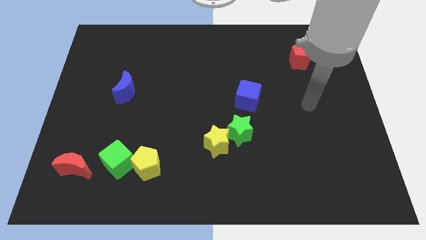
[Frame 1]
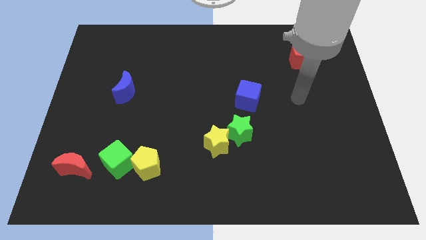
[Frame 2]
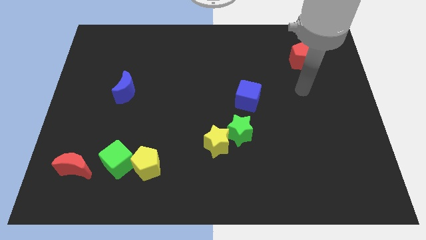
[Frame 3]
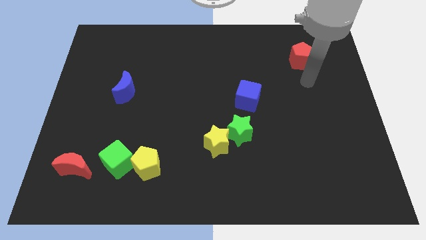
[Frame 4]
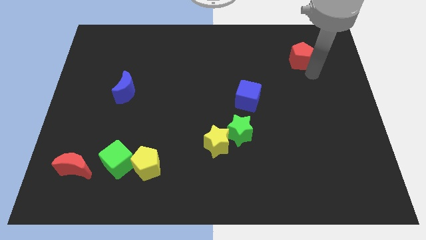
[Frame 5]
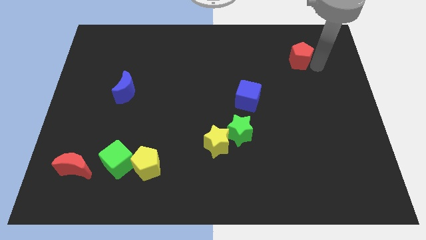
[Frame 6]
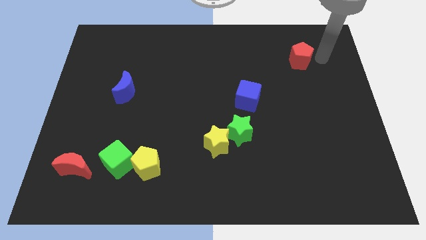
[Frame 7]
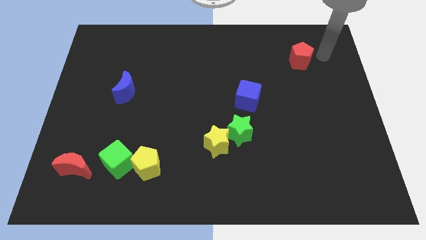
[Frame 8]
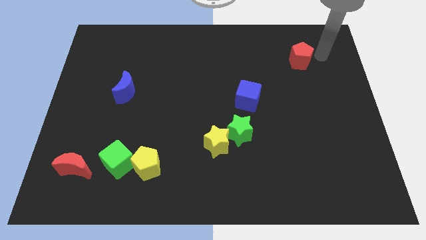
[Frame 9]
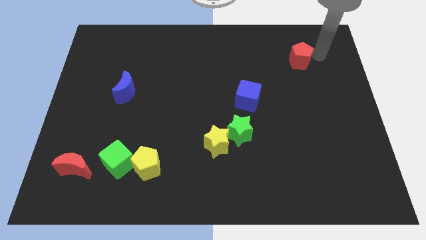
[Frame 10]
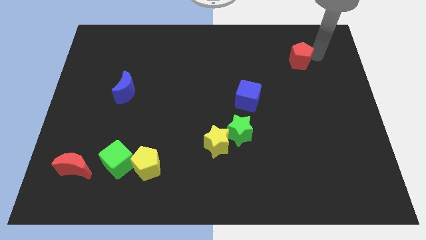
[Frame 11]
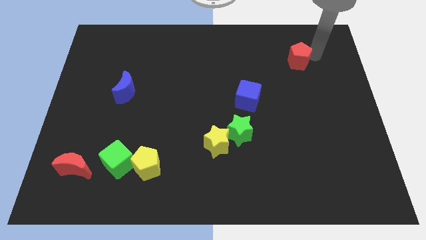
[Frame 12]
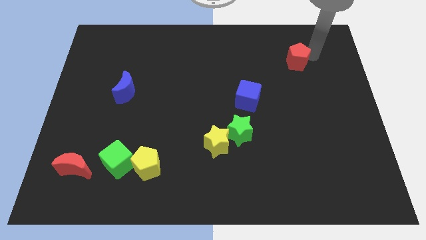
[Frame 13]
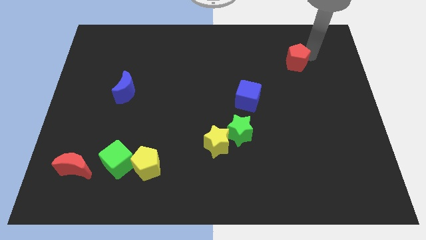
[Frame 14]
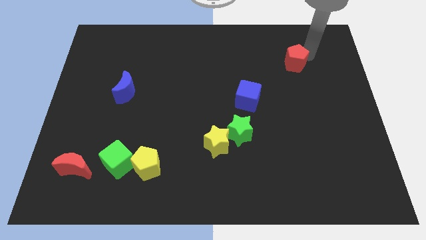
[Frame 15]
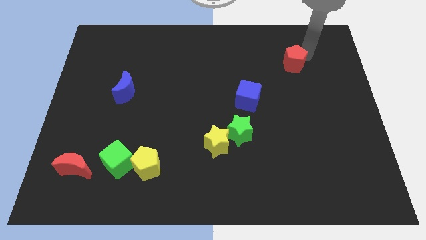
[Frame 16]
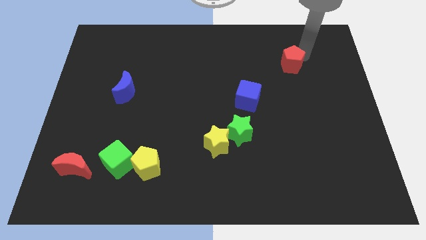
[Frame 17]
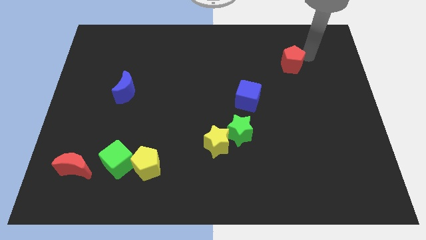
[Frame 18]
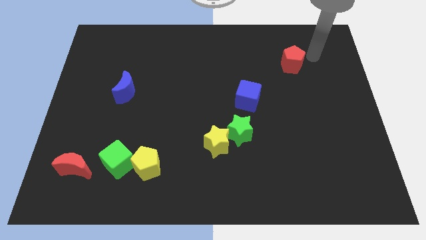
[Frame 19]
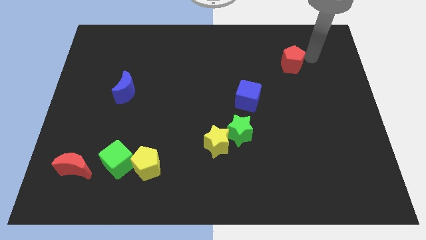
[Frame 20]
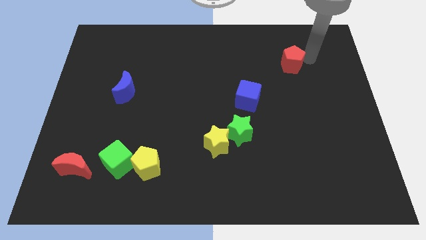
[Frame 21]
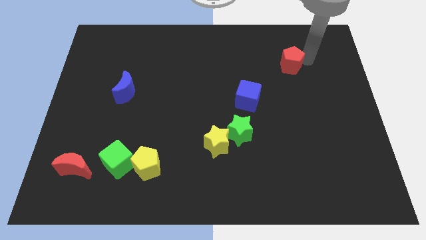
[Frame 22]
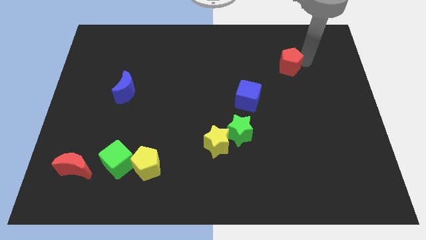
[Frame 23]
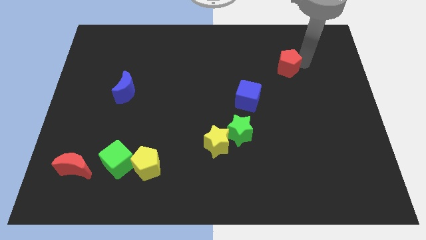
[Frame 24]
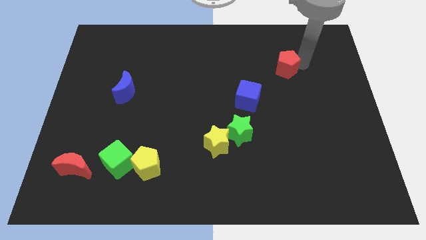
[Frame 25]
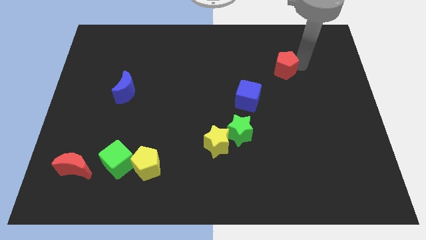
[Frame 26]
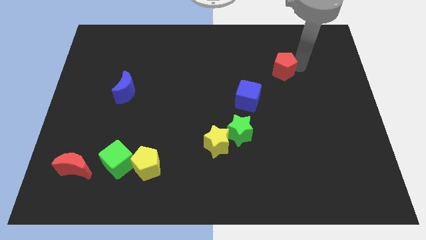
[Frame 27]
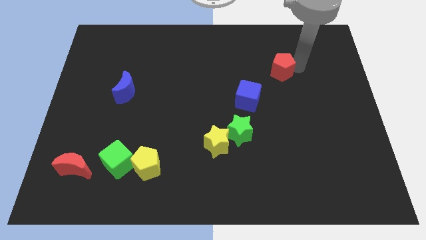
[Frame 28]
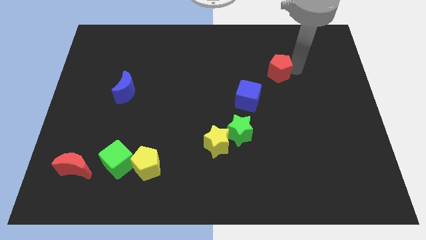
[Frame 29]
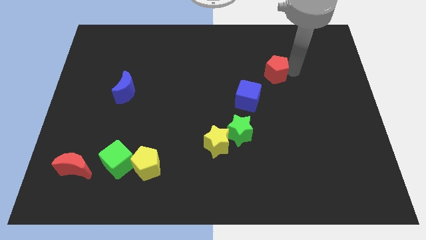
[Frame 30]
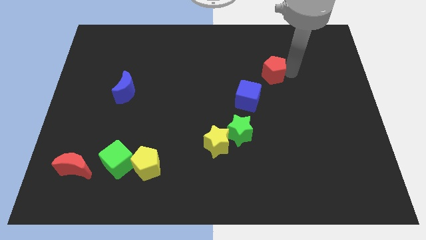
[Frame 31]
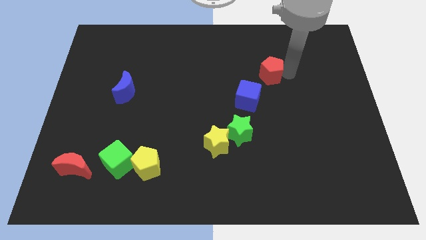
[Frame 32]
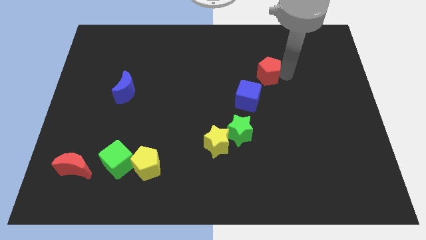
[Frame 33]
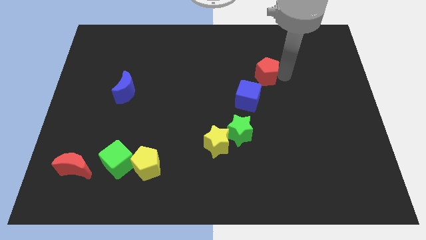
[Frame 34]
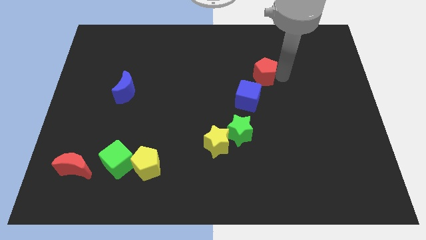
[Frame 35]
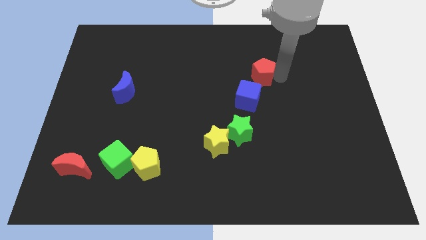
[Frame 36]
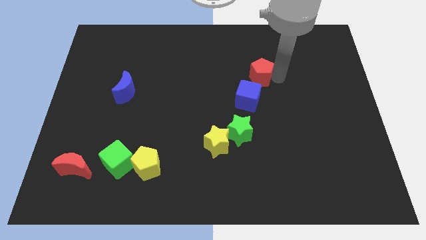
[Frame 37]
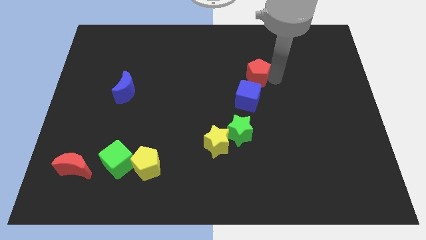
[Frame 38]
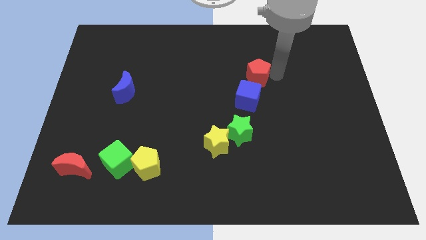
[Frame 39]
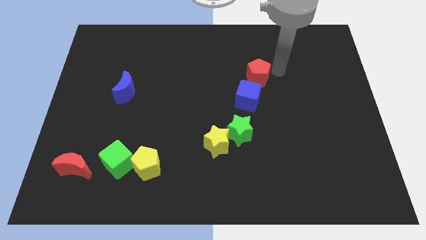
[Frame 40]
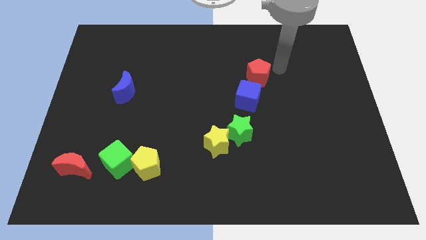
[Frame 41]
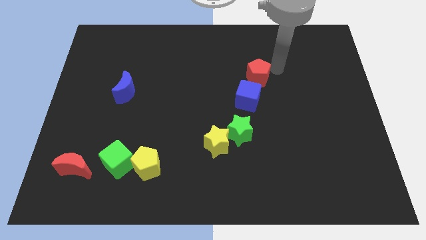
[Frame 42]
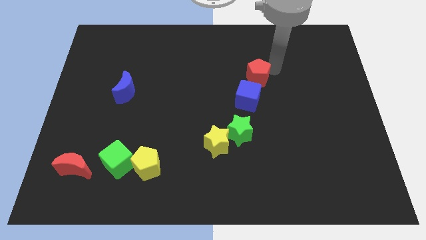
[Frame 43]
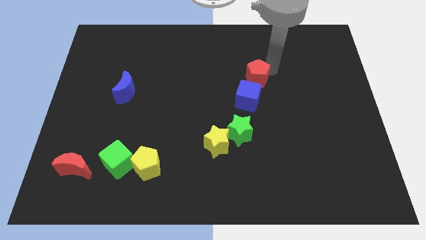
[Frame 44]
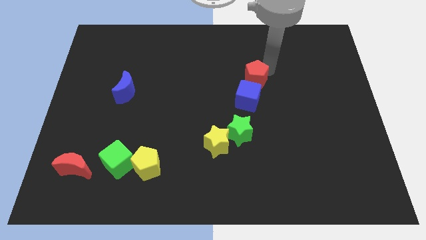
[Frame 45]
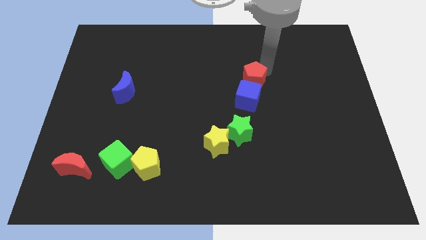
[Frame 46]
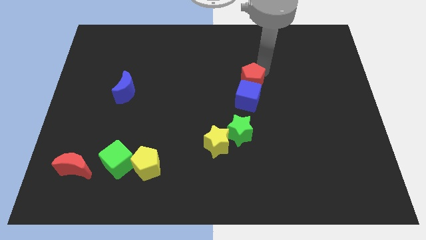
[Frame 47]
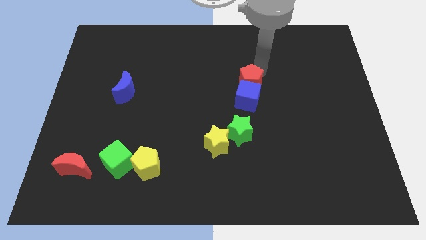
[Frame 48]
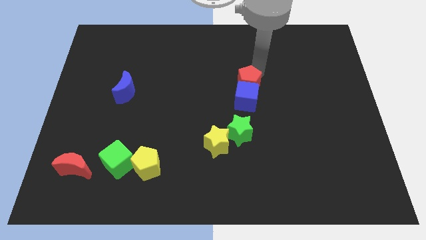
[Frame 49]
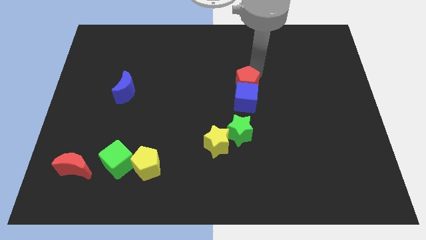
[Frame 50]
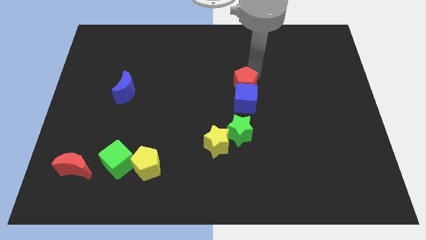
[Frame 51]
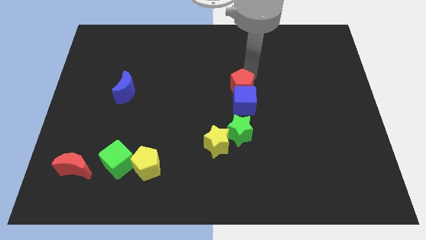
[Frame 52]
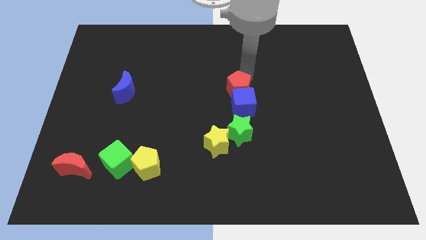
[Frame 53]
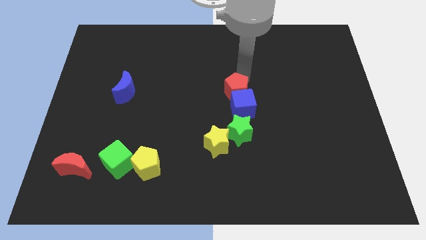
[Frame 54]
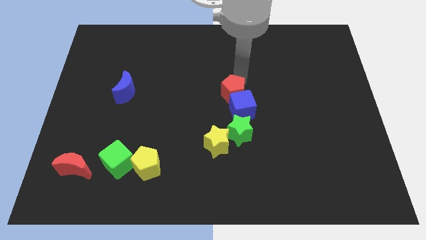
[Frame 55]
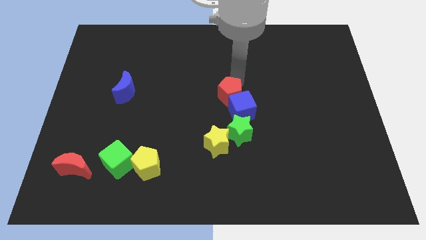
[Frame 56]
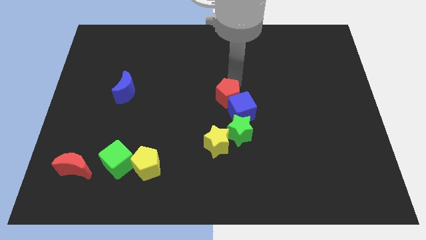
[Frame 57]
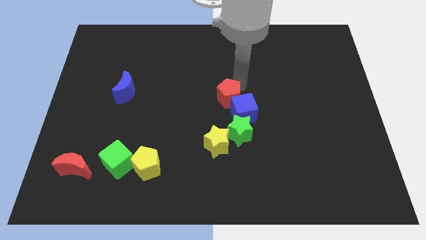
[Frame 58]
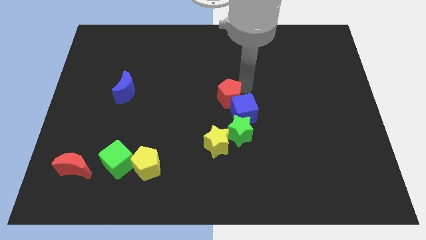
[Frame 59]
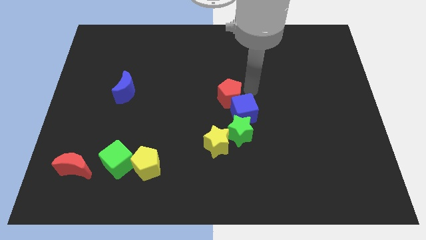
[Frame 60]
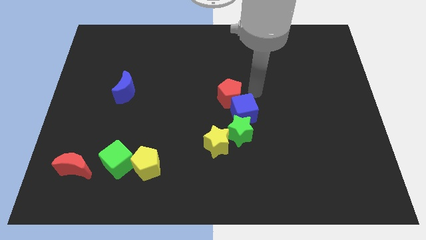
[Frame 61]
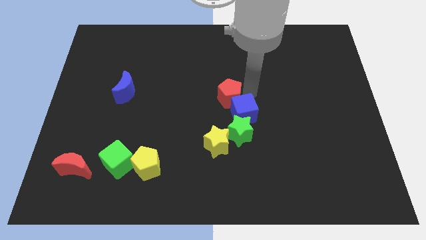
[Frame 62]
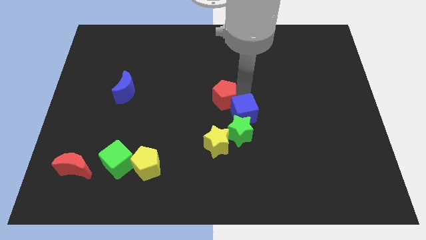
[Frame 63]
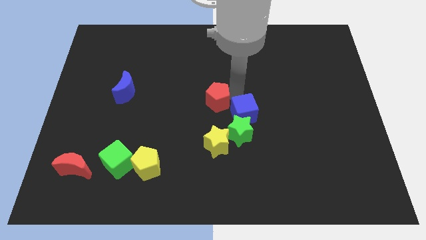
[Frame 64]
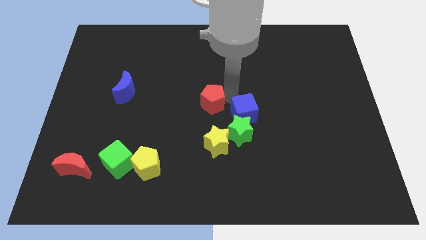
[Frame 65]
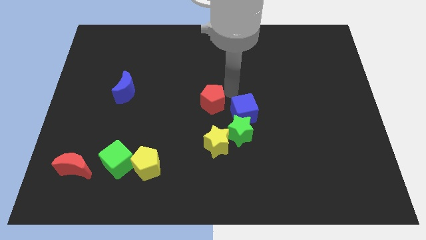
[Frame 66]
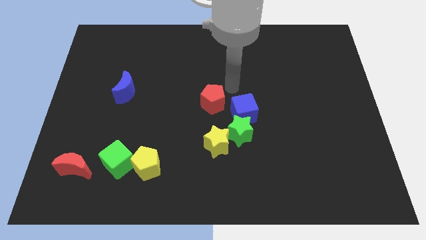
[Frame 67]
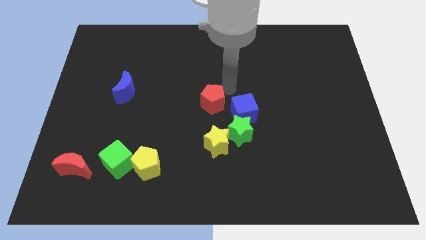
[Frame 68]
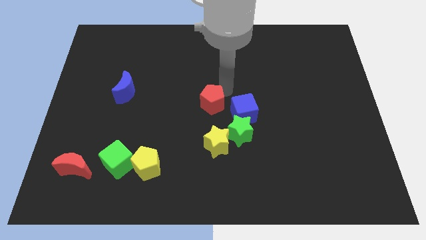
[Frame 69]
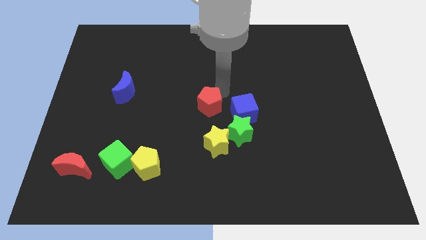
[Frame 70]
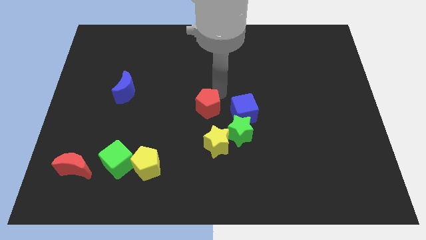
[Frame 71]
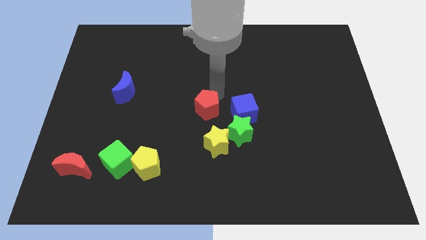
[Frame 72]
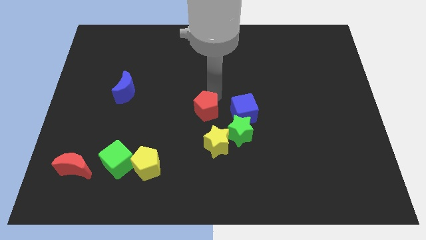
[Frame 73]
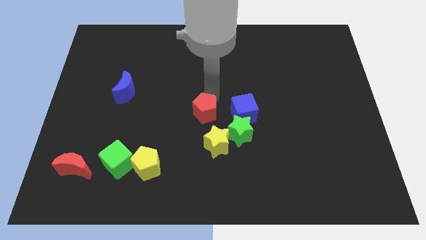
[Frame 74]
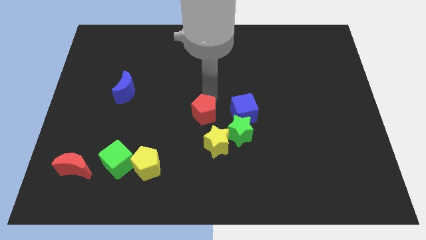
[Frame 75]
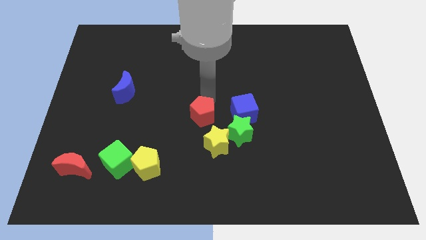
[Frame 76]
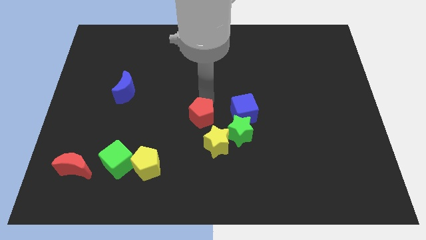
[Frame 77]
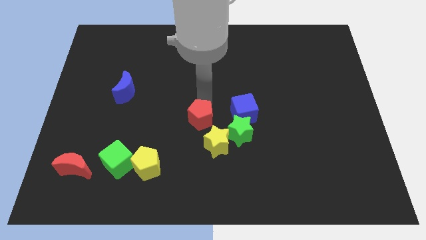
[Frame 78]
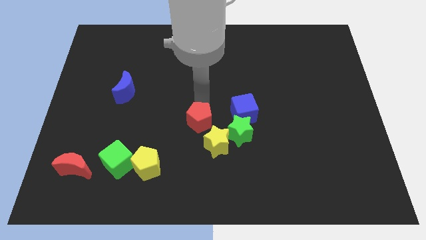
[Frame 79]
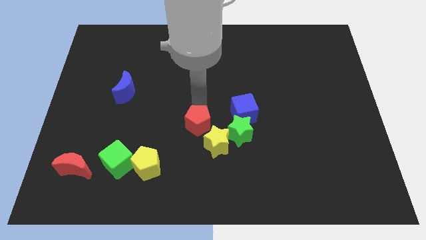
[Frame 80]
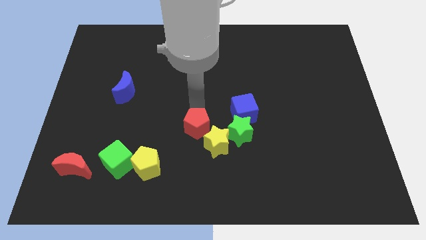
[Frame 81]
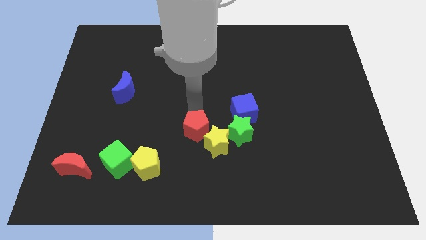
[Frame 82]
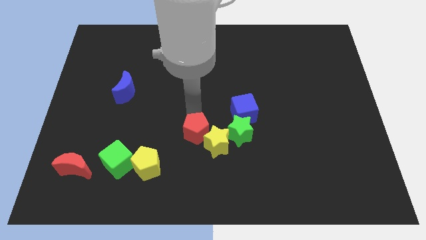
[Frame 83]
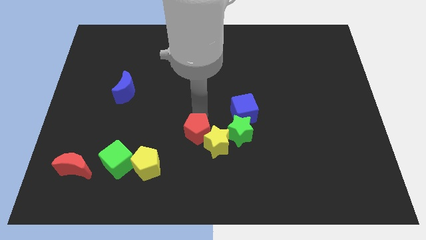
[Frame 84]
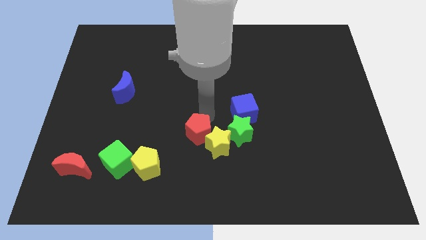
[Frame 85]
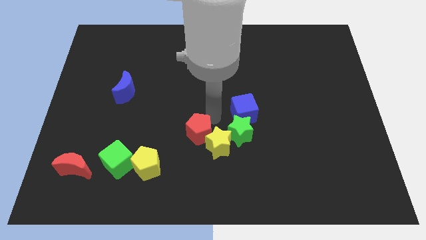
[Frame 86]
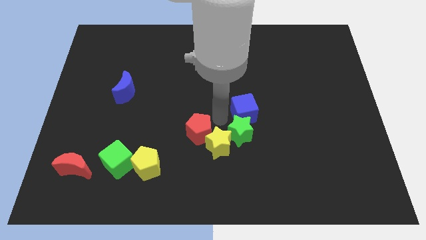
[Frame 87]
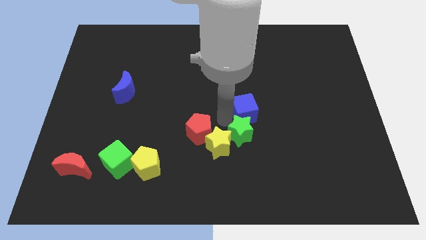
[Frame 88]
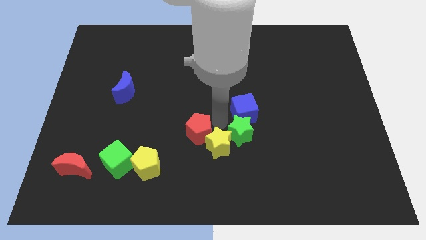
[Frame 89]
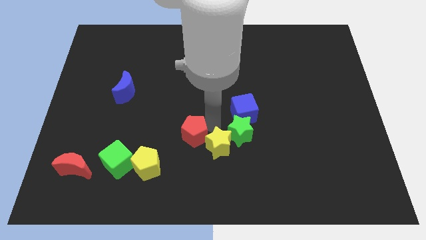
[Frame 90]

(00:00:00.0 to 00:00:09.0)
push the red pentagon to the top right side of the yellow pentagon
